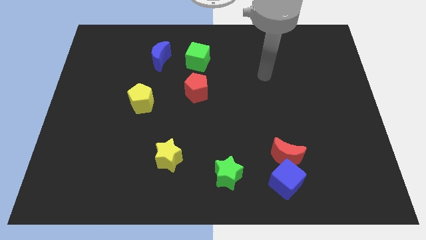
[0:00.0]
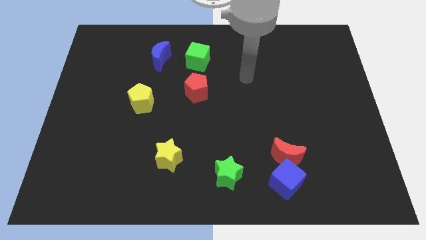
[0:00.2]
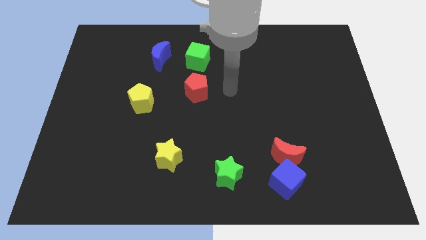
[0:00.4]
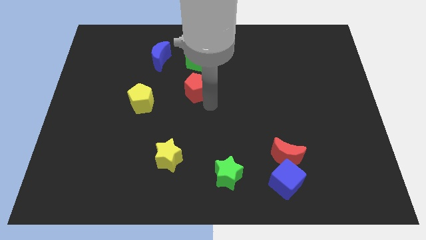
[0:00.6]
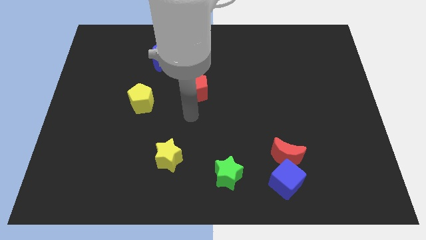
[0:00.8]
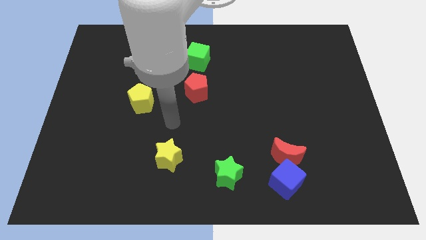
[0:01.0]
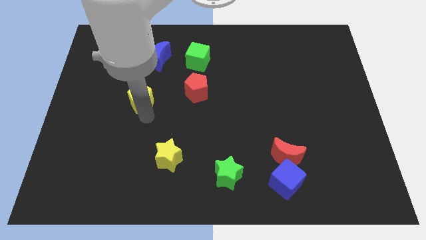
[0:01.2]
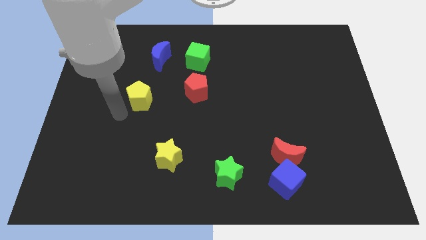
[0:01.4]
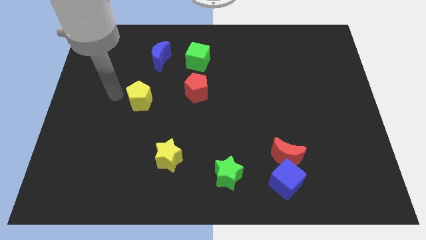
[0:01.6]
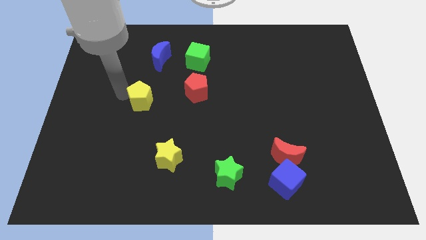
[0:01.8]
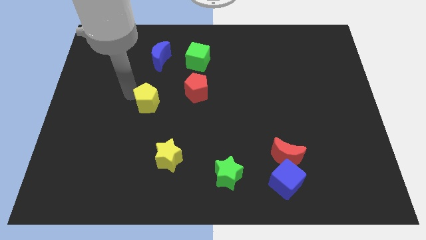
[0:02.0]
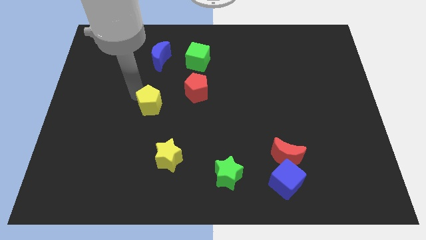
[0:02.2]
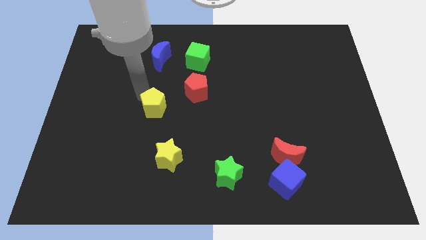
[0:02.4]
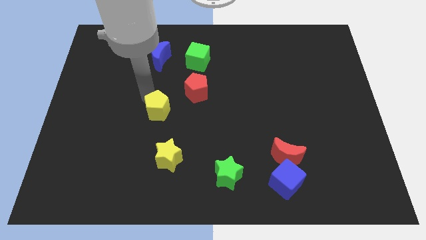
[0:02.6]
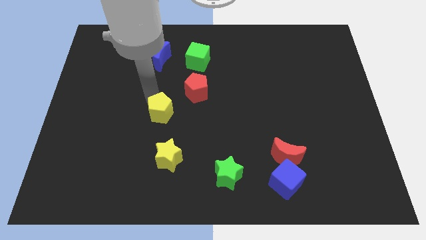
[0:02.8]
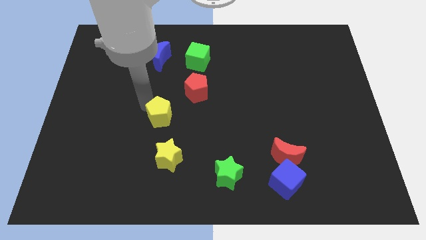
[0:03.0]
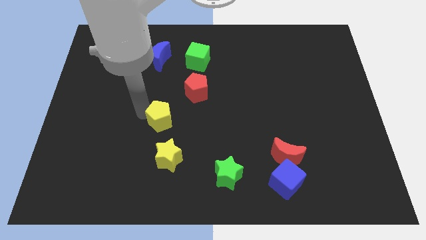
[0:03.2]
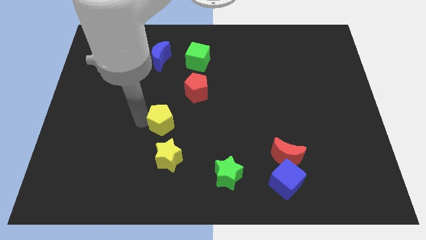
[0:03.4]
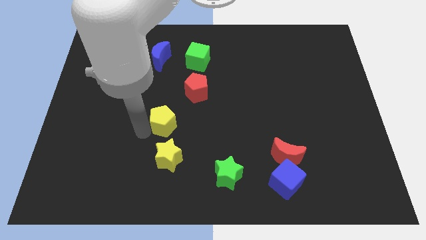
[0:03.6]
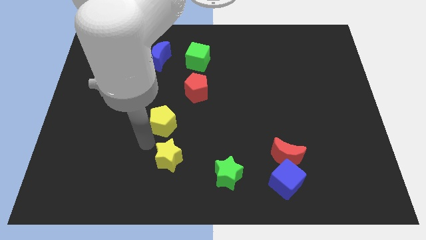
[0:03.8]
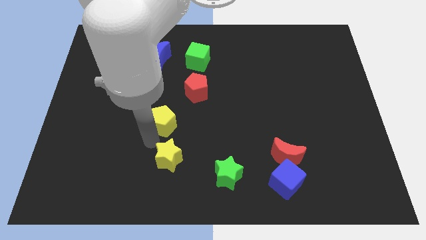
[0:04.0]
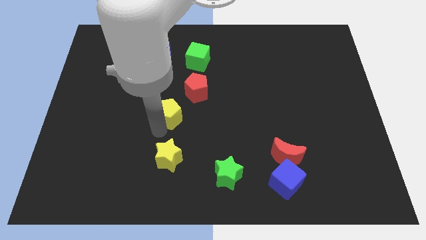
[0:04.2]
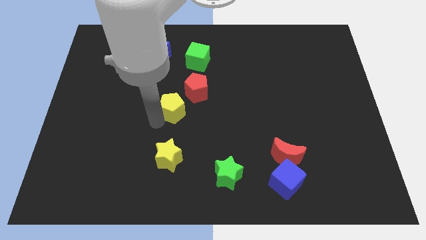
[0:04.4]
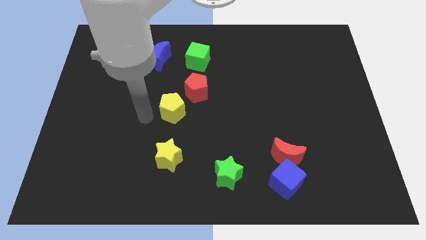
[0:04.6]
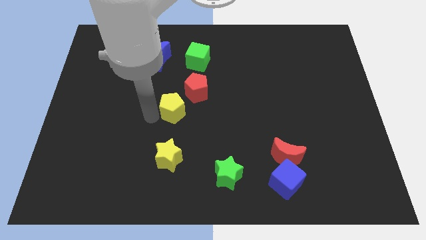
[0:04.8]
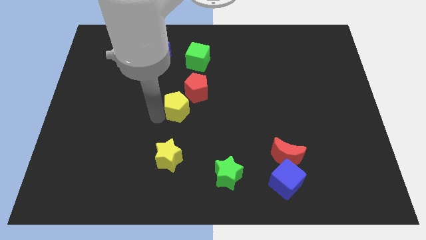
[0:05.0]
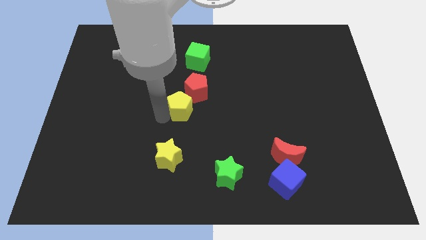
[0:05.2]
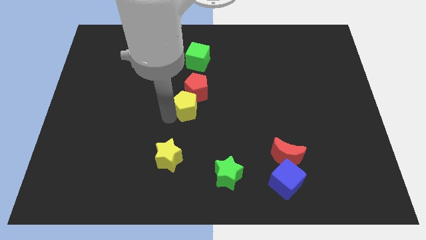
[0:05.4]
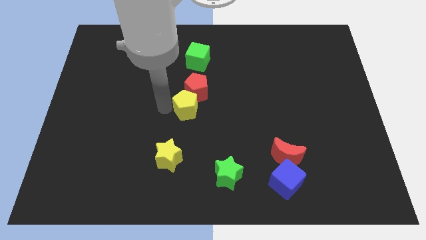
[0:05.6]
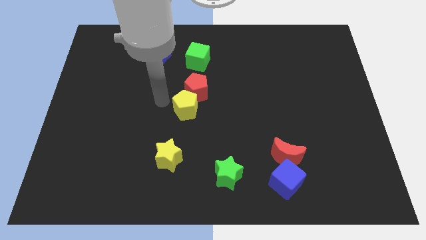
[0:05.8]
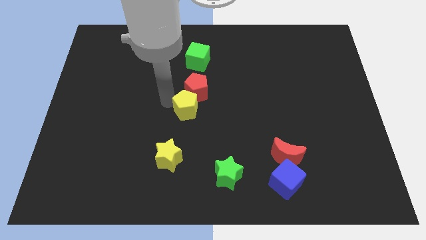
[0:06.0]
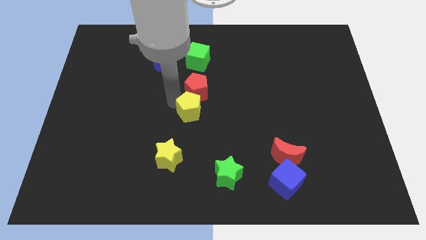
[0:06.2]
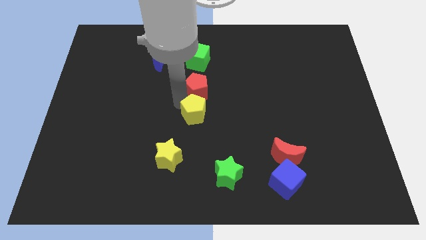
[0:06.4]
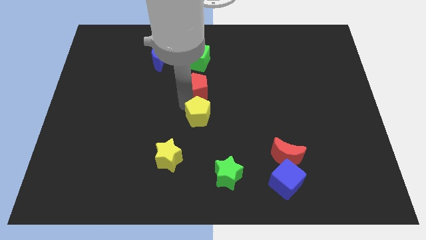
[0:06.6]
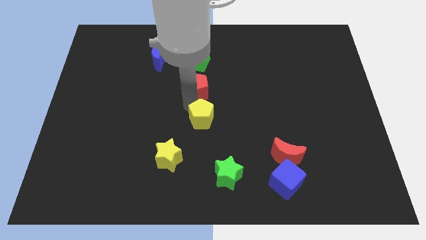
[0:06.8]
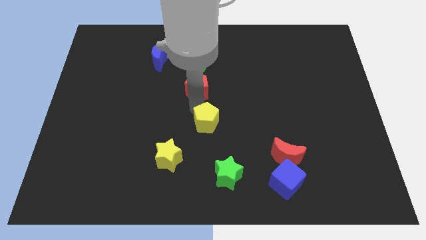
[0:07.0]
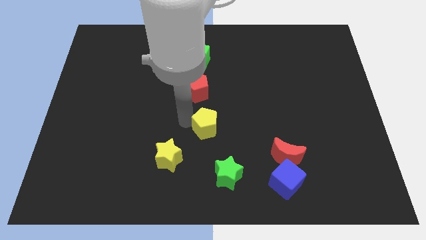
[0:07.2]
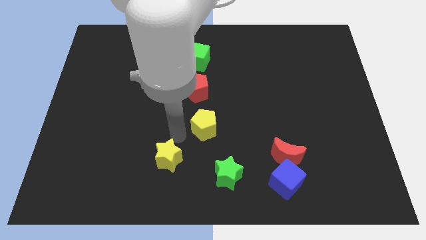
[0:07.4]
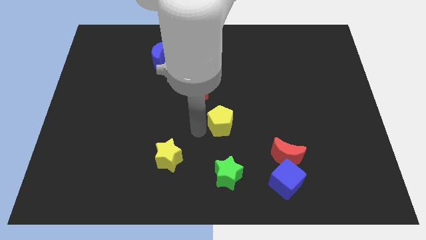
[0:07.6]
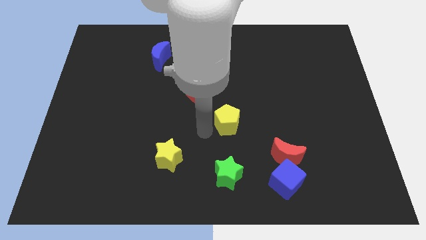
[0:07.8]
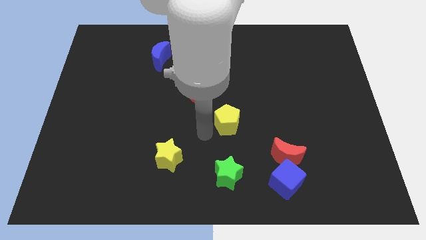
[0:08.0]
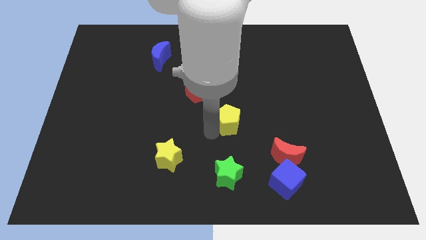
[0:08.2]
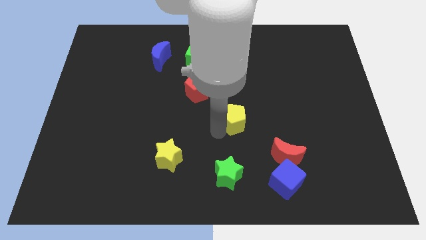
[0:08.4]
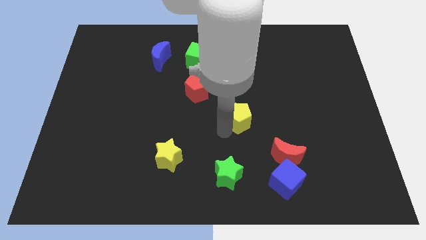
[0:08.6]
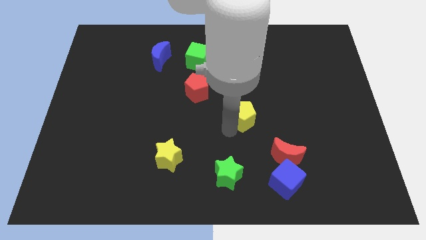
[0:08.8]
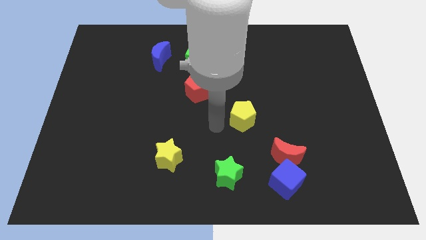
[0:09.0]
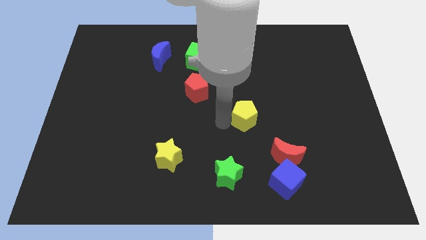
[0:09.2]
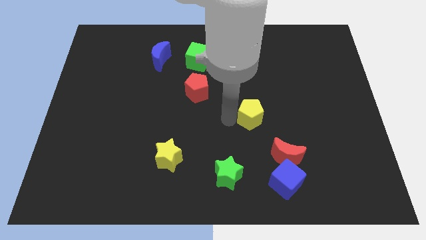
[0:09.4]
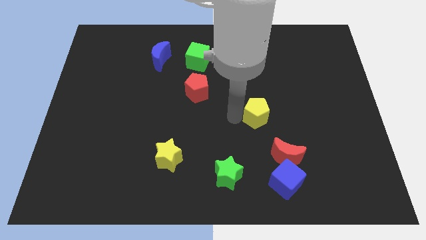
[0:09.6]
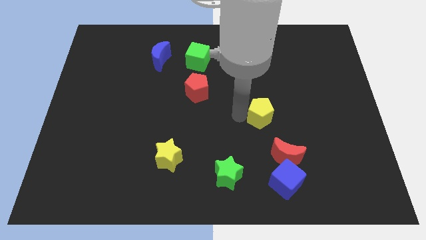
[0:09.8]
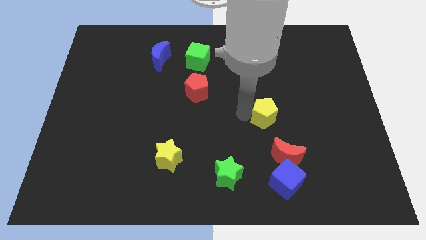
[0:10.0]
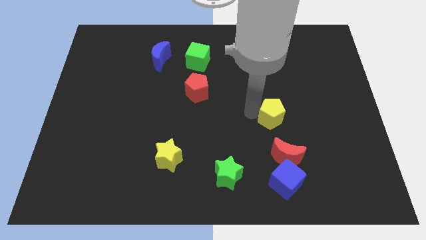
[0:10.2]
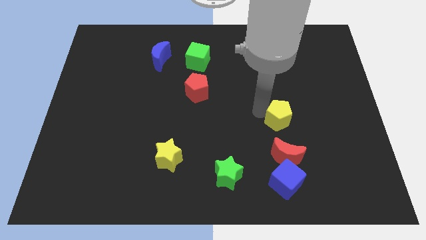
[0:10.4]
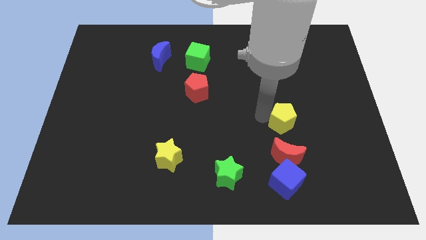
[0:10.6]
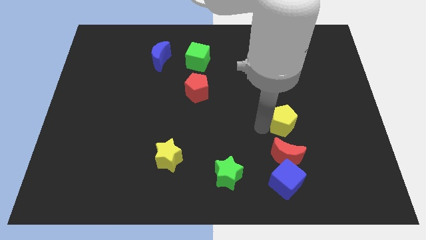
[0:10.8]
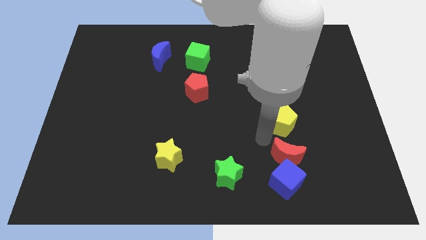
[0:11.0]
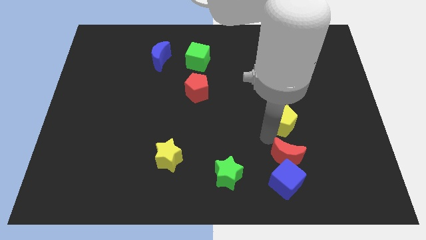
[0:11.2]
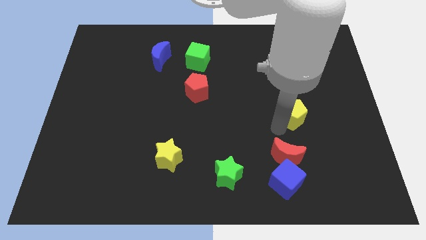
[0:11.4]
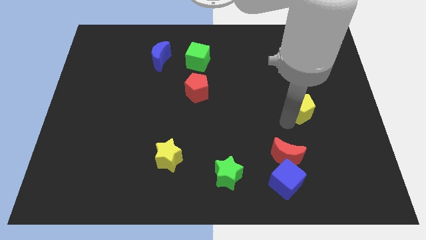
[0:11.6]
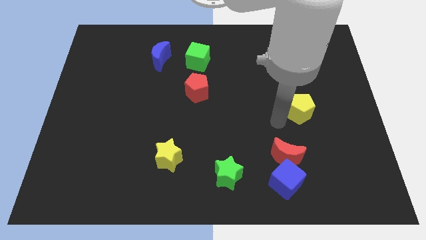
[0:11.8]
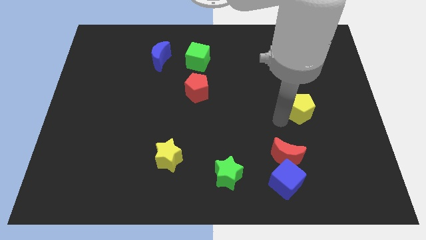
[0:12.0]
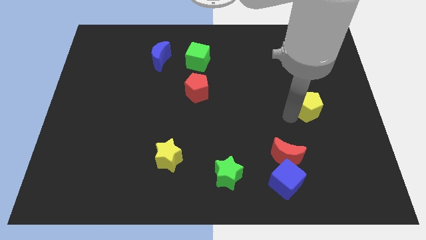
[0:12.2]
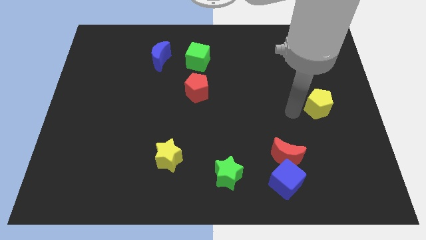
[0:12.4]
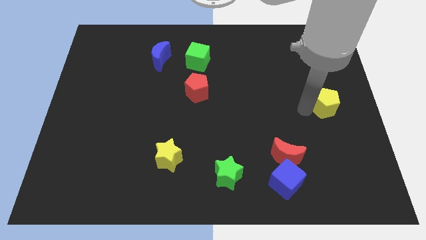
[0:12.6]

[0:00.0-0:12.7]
slide the yellow pentagon to the center right

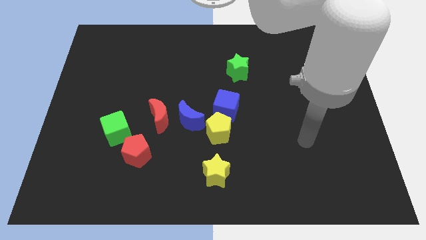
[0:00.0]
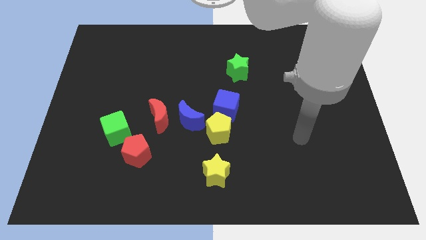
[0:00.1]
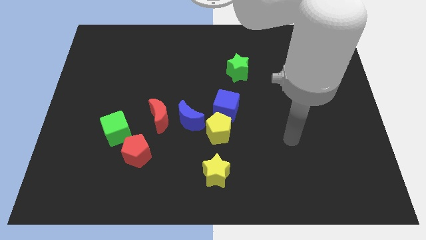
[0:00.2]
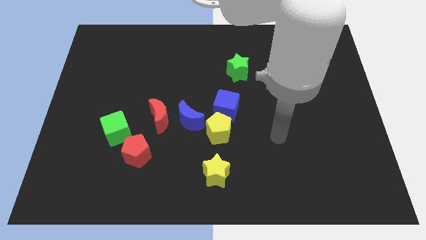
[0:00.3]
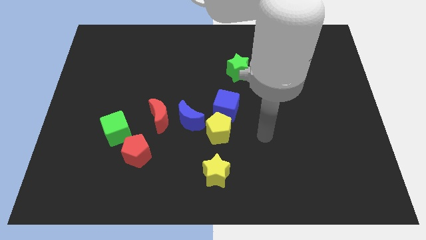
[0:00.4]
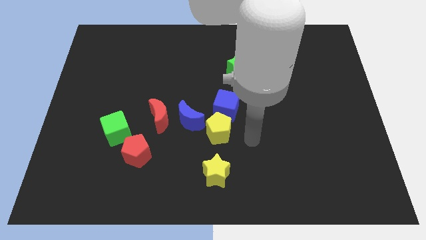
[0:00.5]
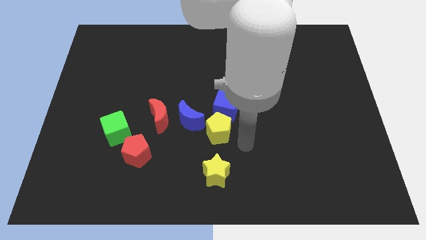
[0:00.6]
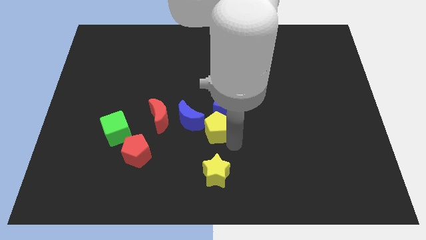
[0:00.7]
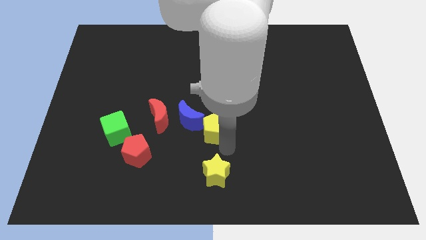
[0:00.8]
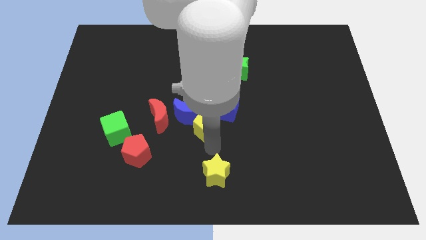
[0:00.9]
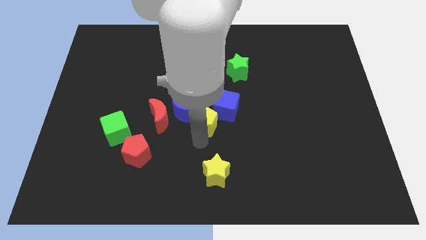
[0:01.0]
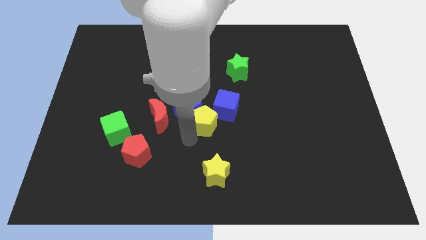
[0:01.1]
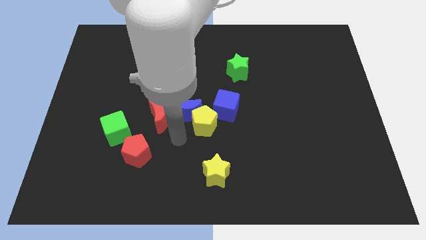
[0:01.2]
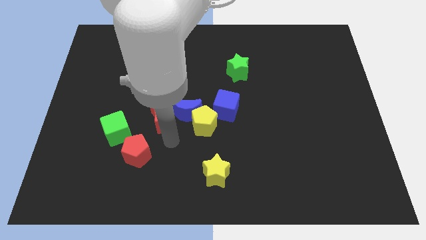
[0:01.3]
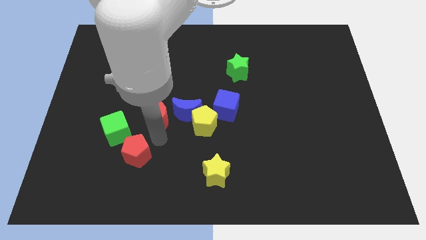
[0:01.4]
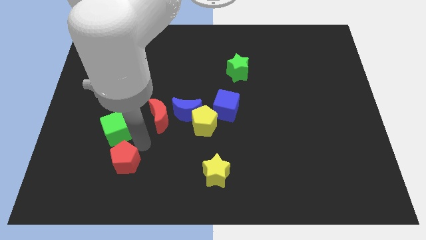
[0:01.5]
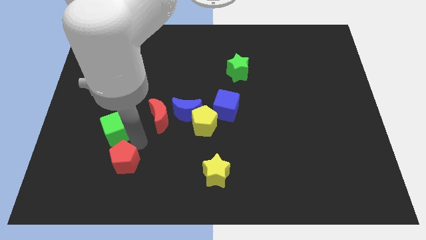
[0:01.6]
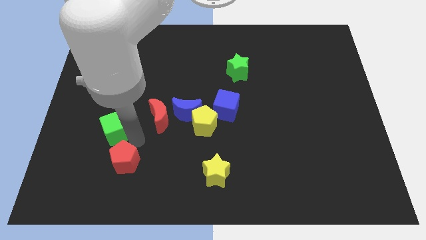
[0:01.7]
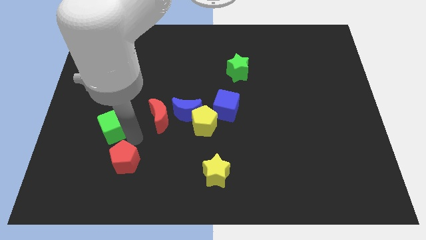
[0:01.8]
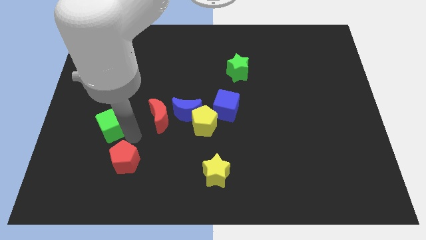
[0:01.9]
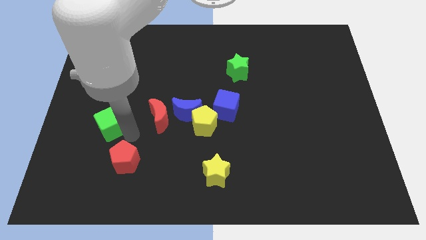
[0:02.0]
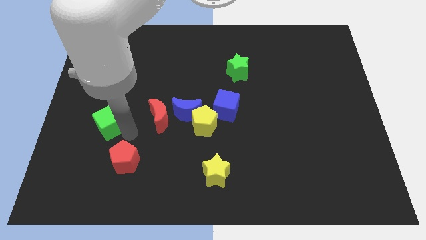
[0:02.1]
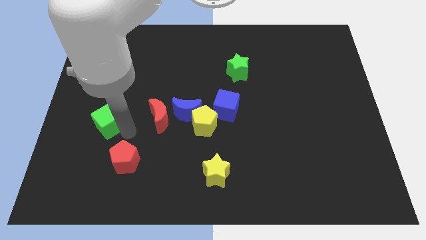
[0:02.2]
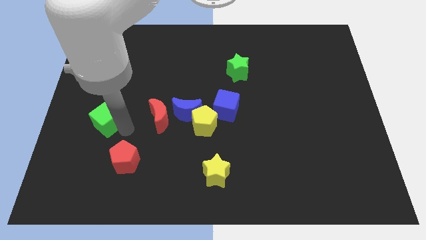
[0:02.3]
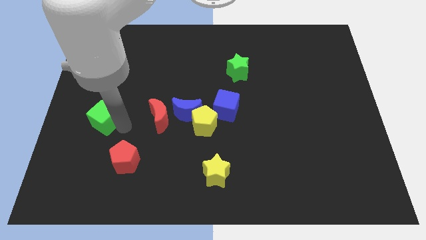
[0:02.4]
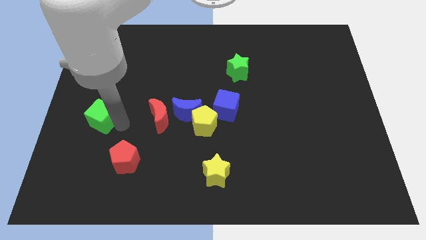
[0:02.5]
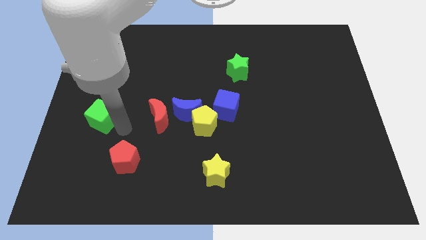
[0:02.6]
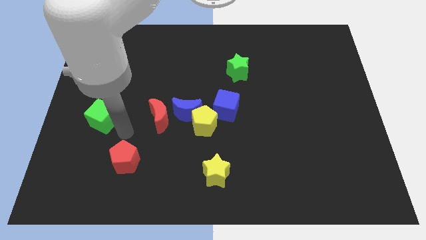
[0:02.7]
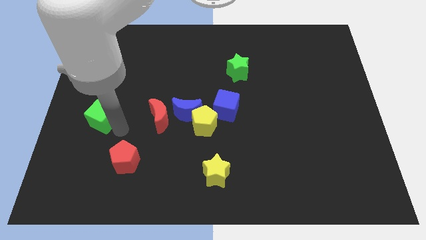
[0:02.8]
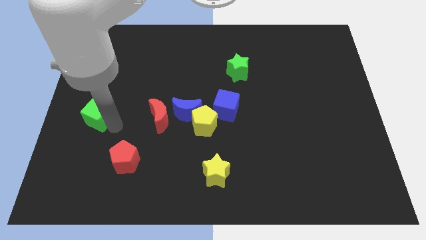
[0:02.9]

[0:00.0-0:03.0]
move the green cube to the center left
